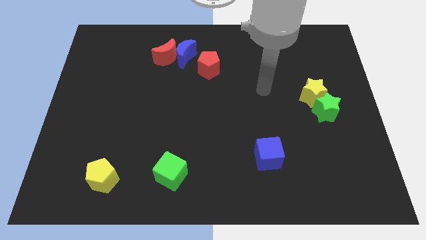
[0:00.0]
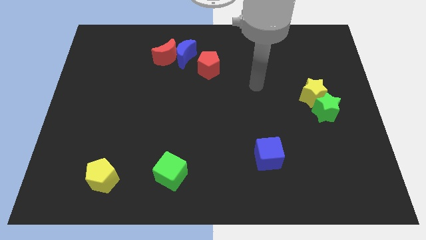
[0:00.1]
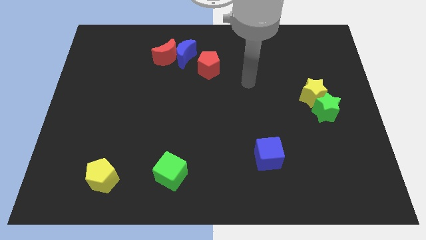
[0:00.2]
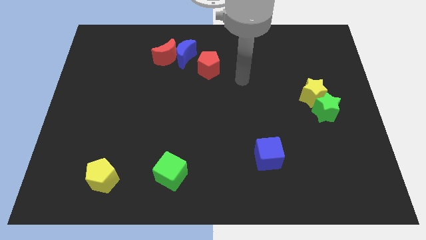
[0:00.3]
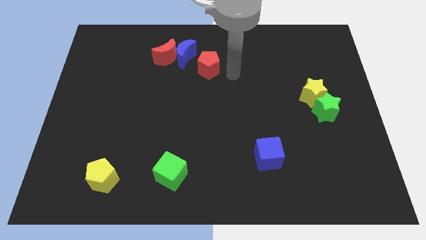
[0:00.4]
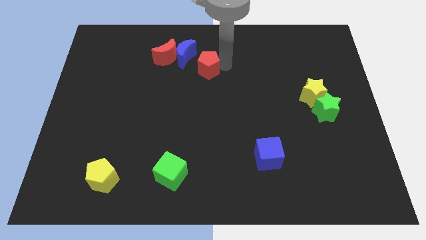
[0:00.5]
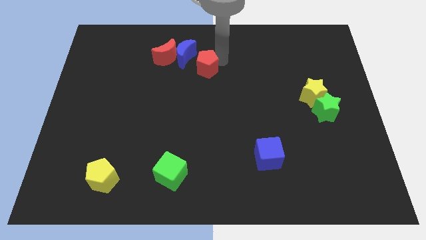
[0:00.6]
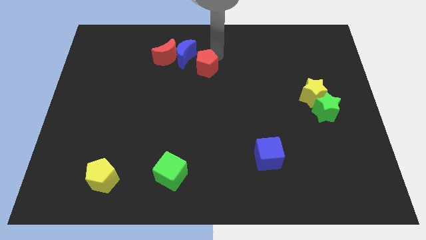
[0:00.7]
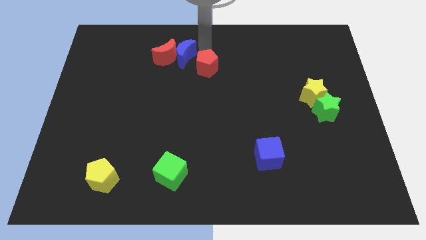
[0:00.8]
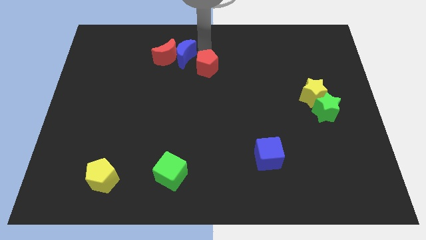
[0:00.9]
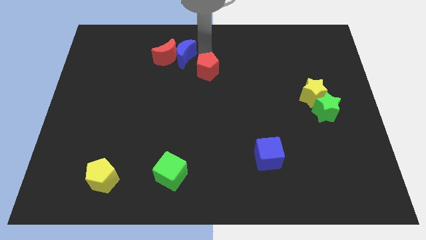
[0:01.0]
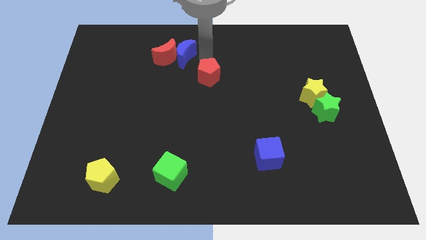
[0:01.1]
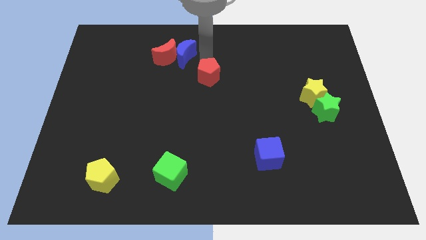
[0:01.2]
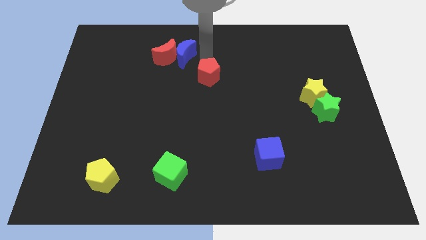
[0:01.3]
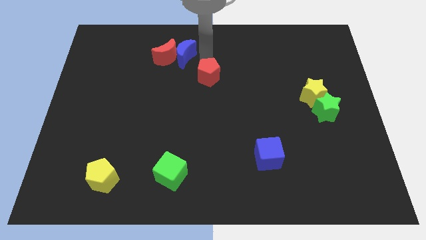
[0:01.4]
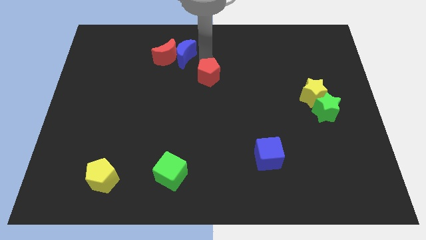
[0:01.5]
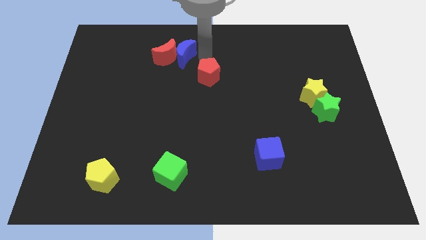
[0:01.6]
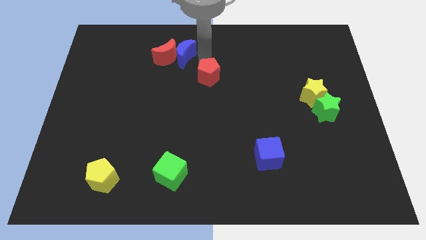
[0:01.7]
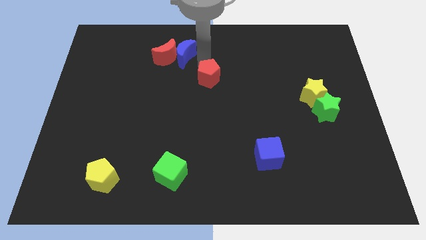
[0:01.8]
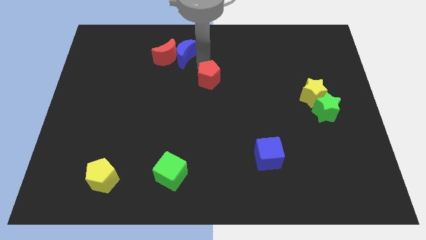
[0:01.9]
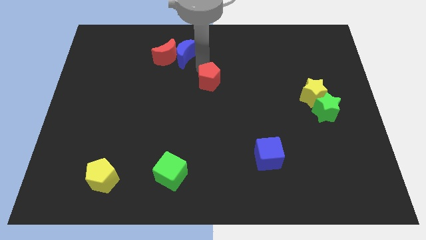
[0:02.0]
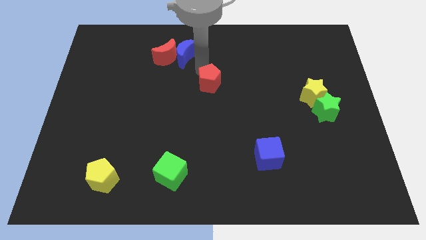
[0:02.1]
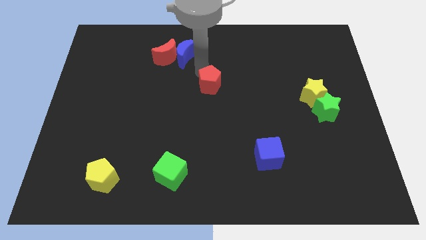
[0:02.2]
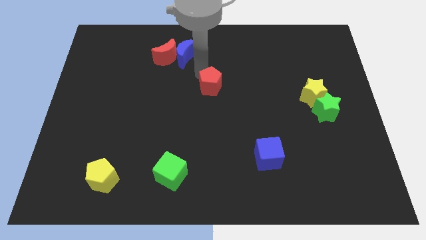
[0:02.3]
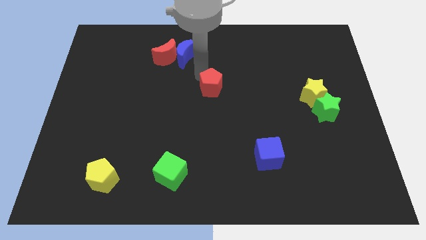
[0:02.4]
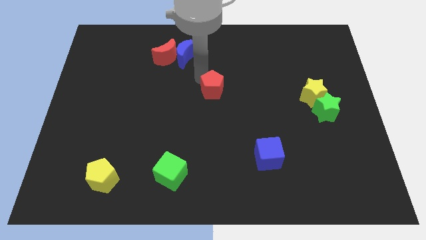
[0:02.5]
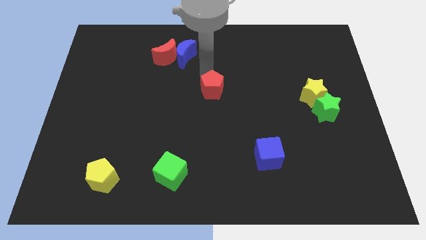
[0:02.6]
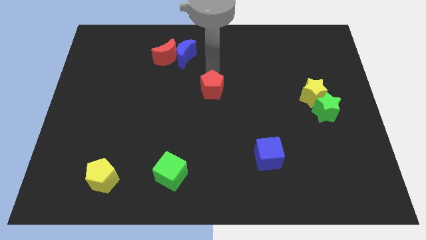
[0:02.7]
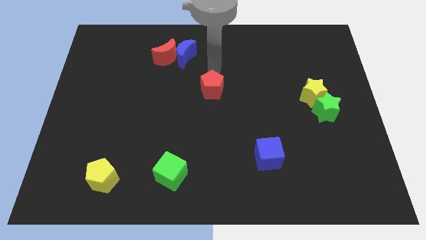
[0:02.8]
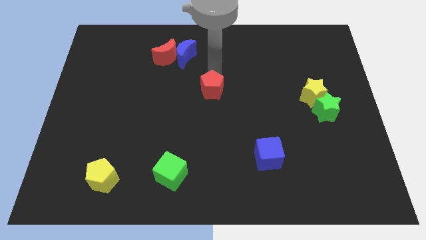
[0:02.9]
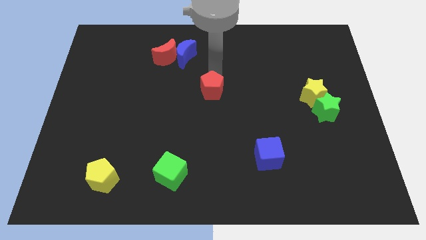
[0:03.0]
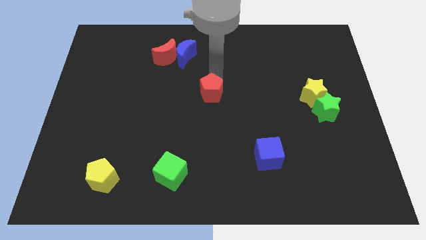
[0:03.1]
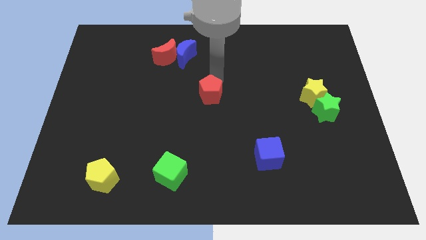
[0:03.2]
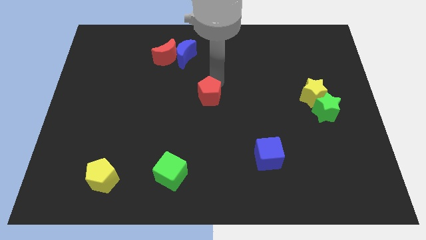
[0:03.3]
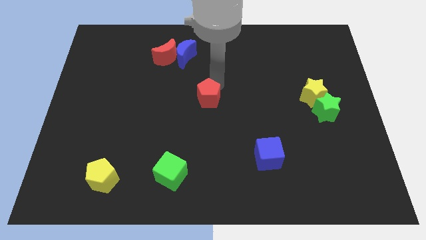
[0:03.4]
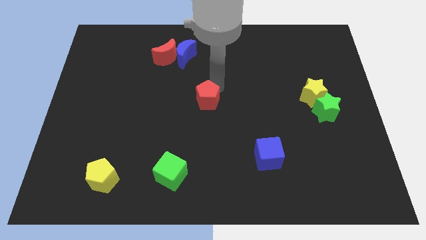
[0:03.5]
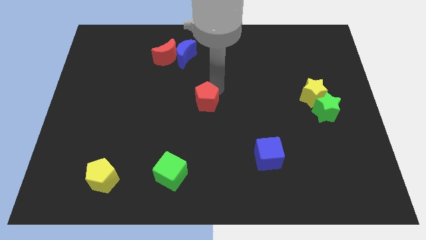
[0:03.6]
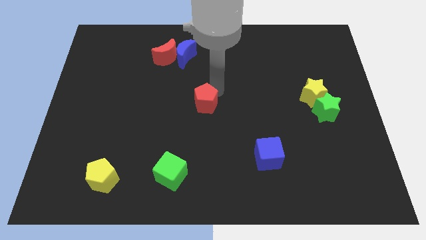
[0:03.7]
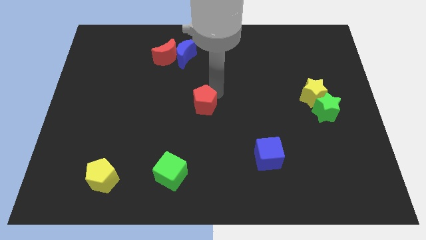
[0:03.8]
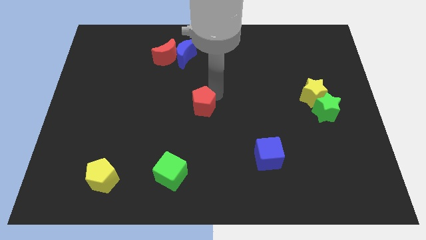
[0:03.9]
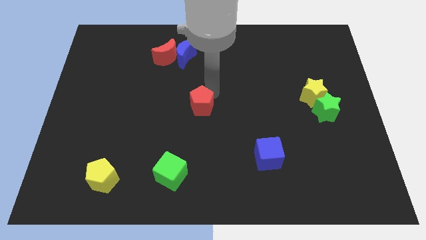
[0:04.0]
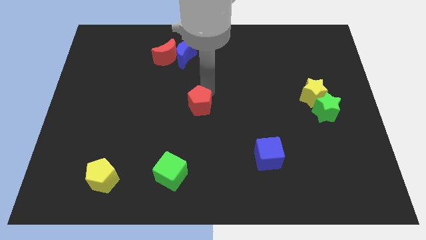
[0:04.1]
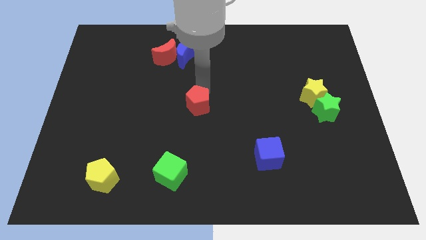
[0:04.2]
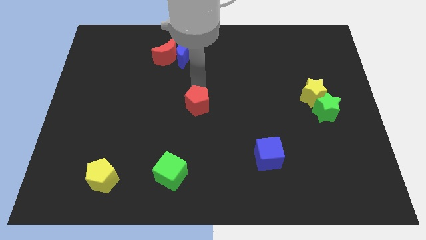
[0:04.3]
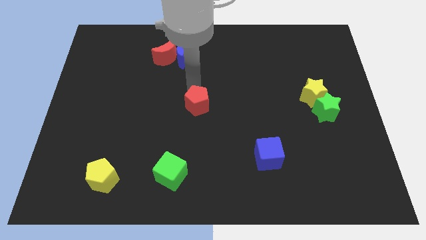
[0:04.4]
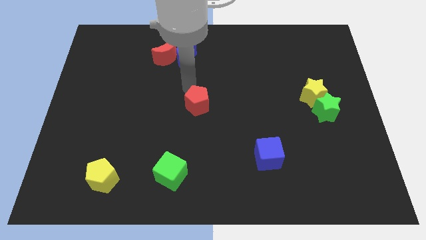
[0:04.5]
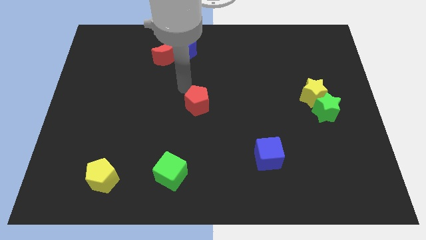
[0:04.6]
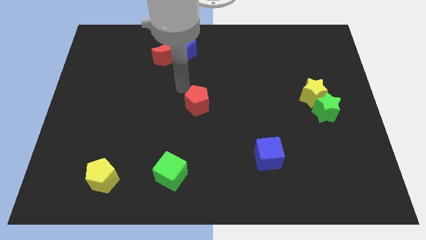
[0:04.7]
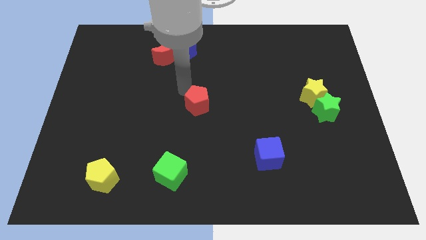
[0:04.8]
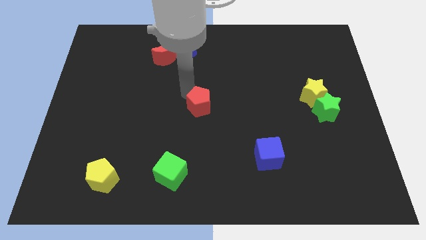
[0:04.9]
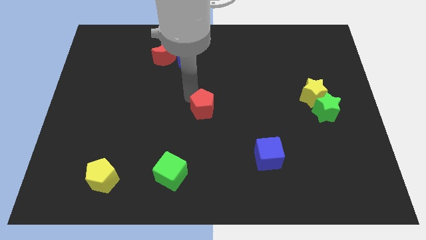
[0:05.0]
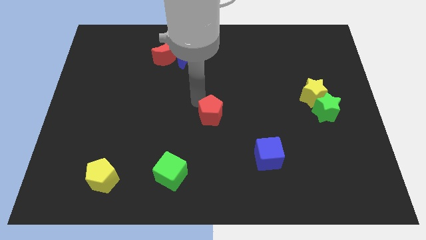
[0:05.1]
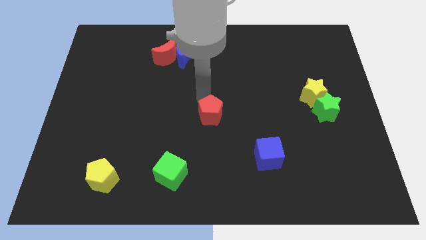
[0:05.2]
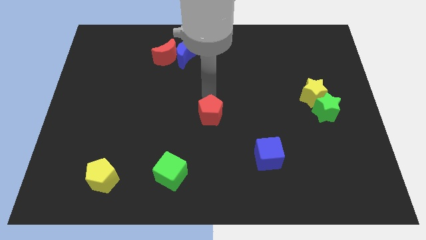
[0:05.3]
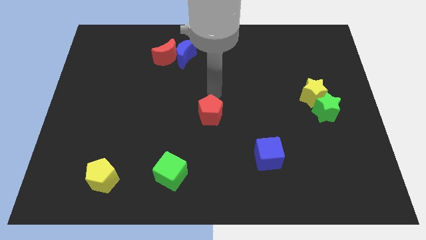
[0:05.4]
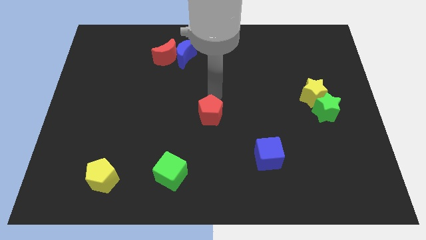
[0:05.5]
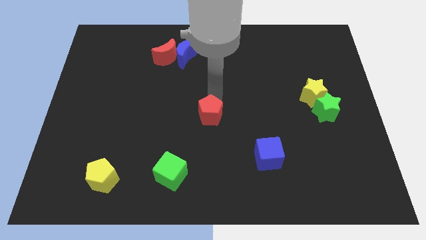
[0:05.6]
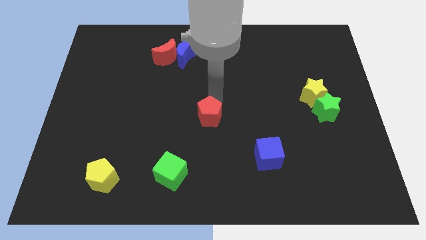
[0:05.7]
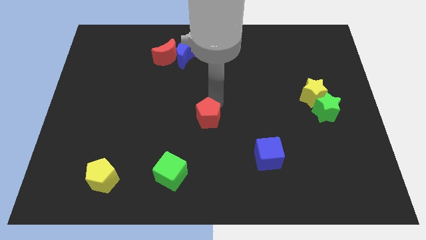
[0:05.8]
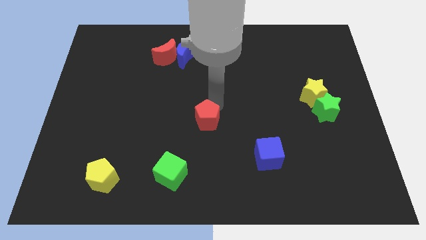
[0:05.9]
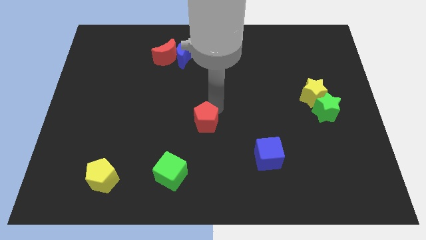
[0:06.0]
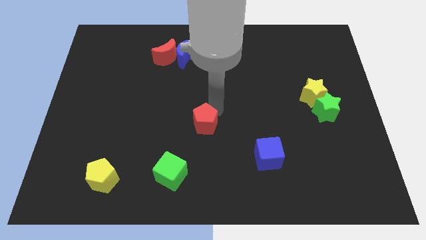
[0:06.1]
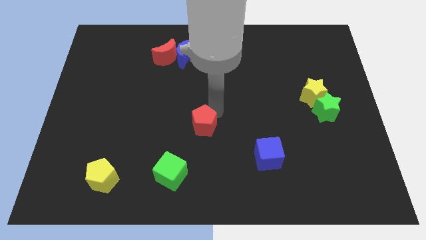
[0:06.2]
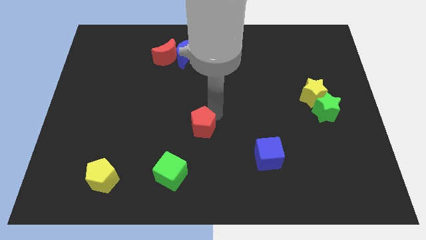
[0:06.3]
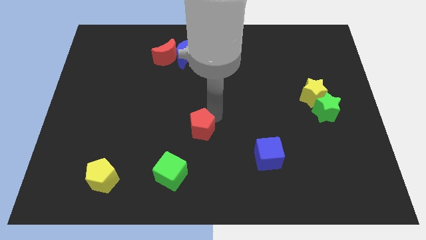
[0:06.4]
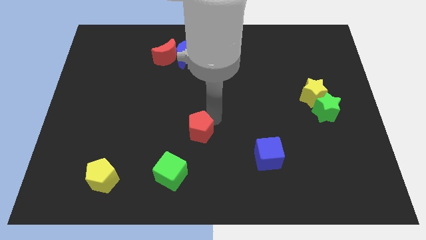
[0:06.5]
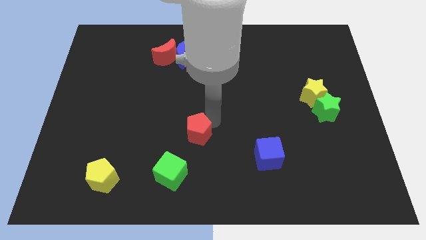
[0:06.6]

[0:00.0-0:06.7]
put the red pentagon diagonally up and to the right of the green cube
